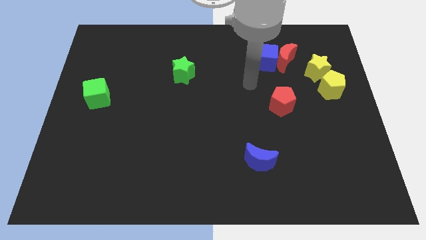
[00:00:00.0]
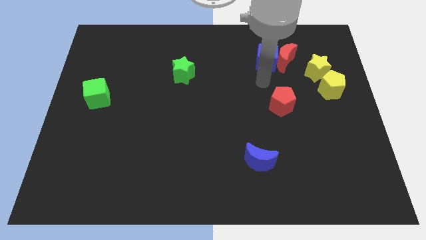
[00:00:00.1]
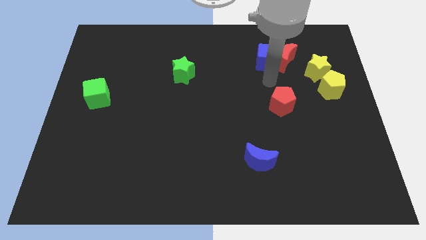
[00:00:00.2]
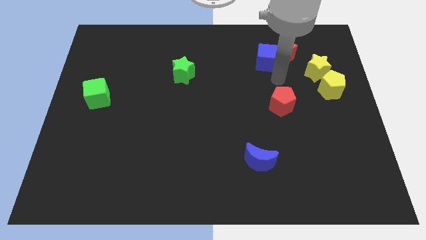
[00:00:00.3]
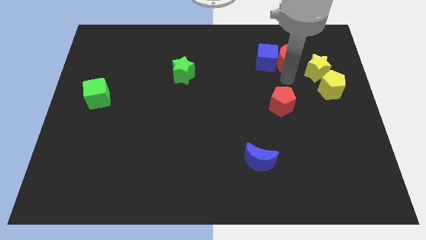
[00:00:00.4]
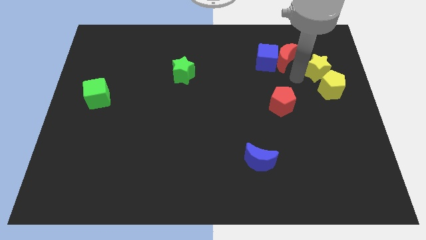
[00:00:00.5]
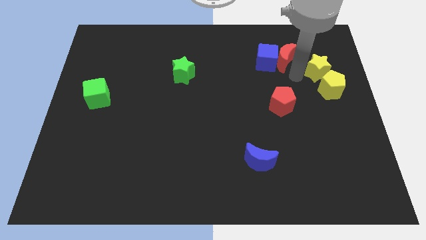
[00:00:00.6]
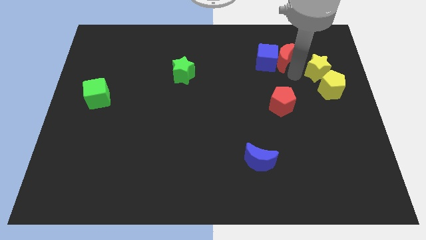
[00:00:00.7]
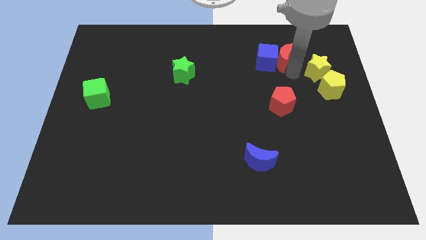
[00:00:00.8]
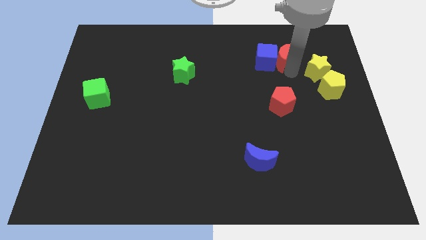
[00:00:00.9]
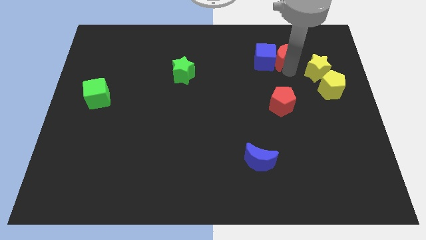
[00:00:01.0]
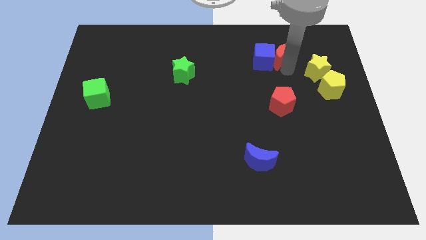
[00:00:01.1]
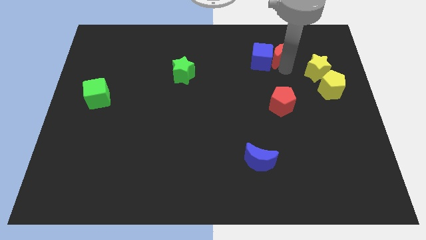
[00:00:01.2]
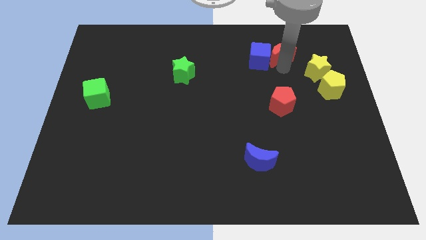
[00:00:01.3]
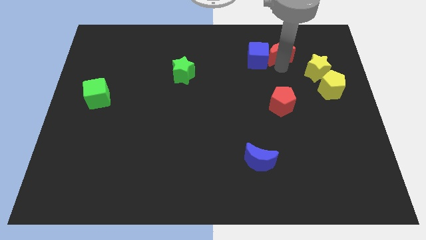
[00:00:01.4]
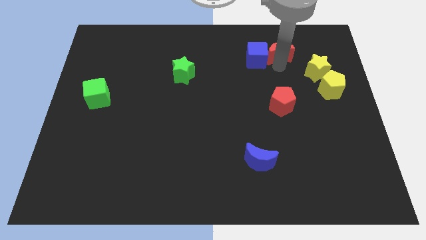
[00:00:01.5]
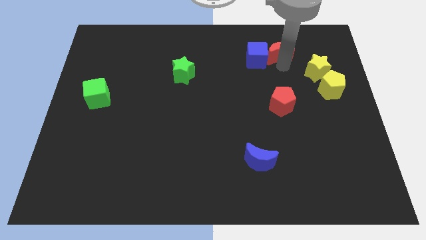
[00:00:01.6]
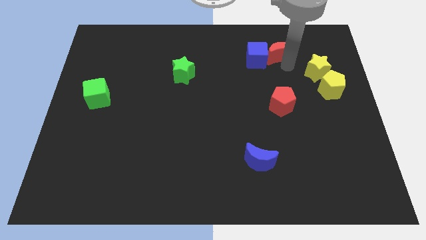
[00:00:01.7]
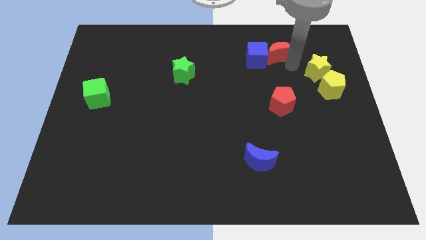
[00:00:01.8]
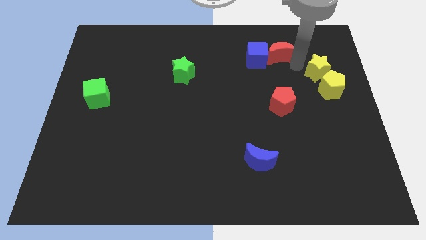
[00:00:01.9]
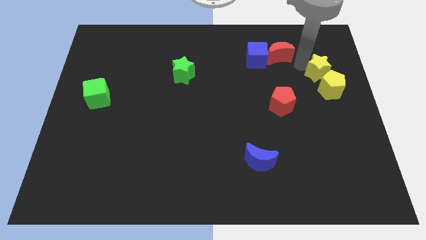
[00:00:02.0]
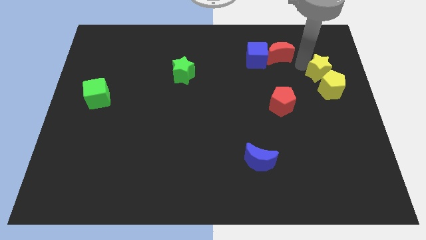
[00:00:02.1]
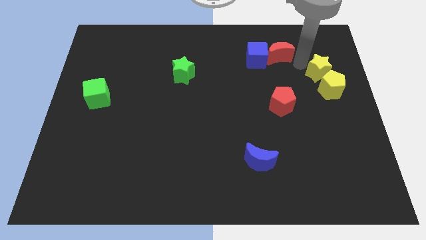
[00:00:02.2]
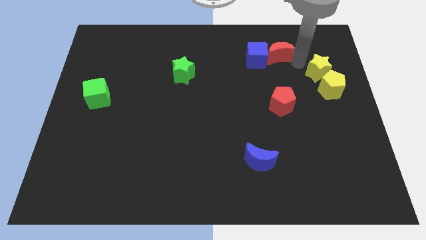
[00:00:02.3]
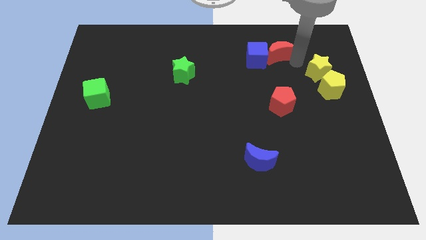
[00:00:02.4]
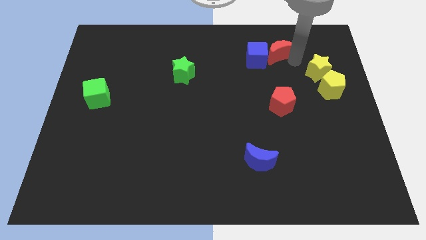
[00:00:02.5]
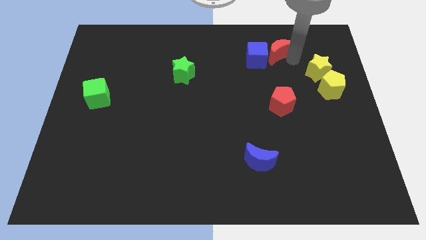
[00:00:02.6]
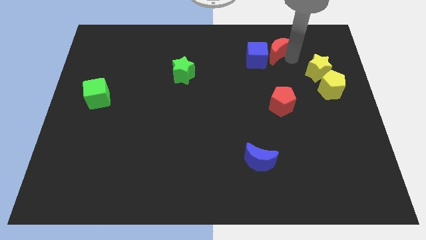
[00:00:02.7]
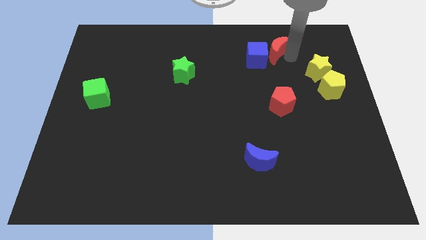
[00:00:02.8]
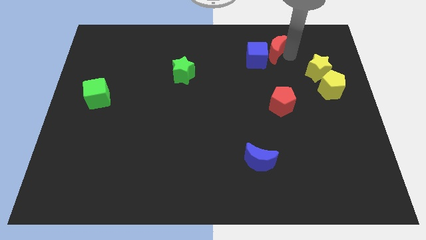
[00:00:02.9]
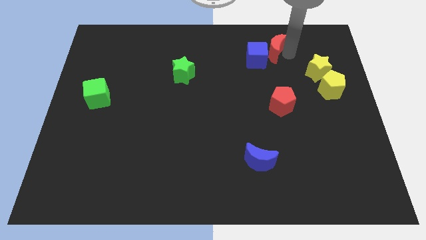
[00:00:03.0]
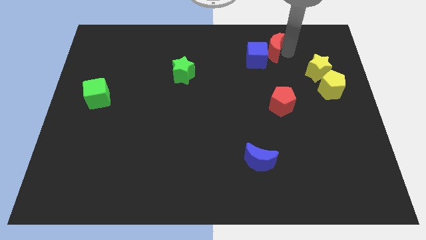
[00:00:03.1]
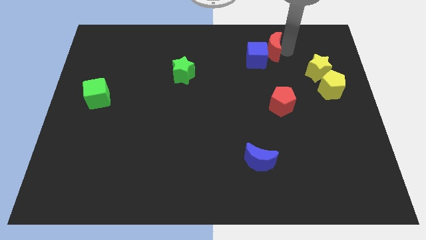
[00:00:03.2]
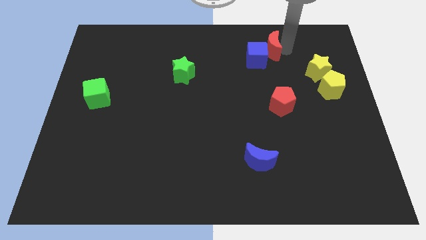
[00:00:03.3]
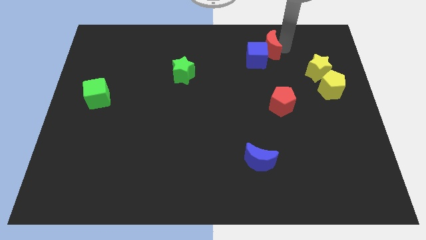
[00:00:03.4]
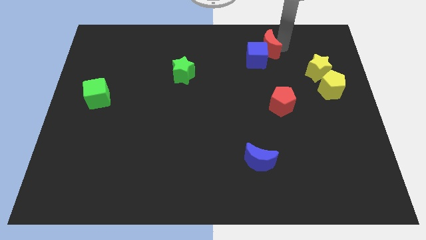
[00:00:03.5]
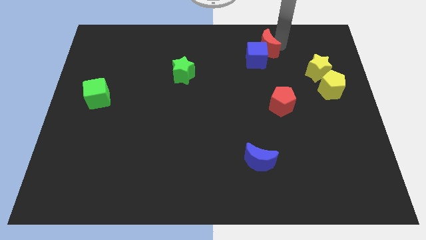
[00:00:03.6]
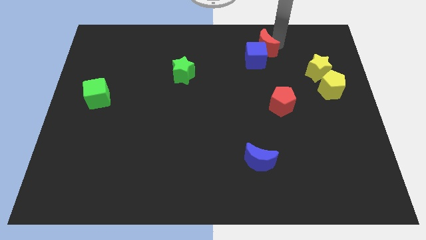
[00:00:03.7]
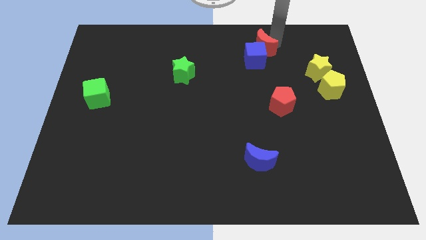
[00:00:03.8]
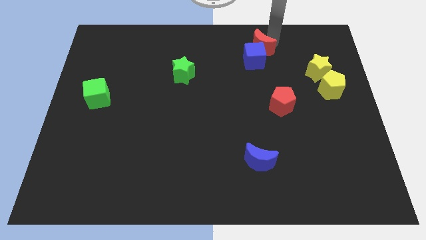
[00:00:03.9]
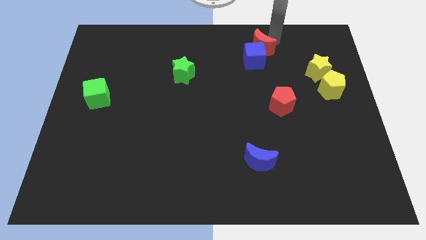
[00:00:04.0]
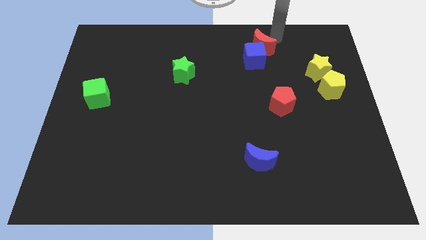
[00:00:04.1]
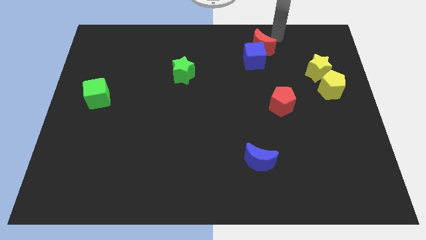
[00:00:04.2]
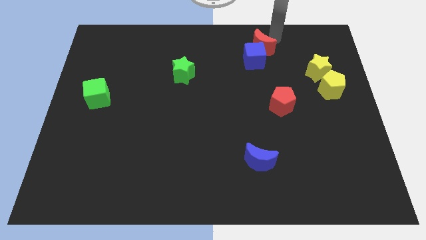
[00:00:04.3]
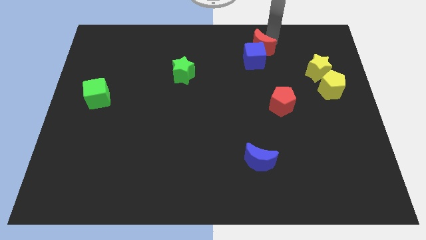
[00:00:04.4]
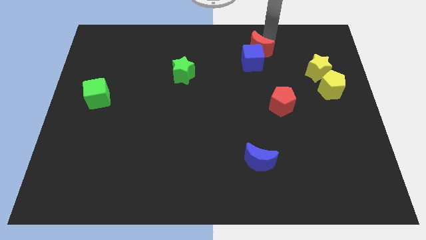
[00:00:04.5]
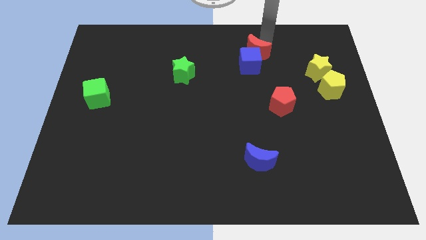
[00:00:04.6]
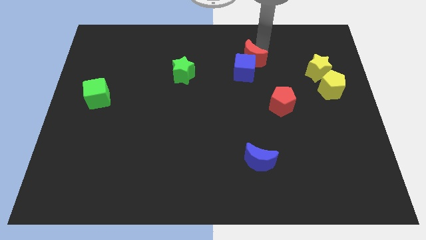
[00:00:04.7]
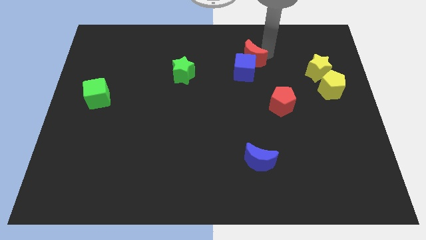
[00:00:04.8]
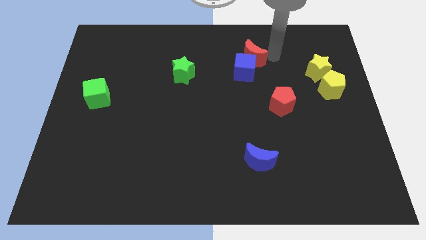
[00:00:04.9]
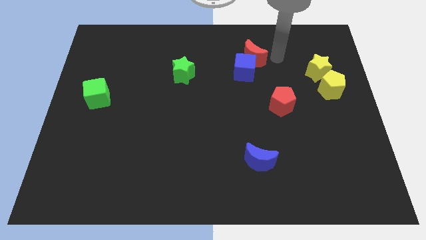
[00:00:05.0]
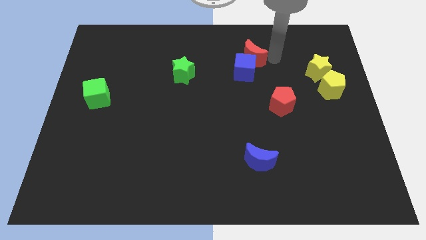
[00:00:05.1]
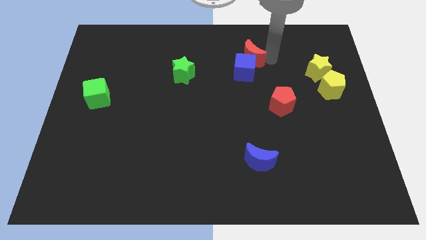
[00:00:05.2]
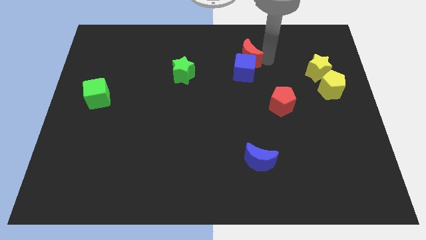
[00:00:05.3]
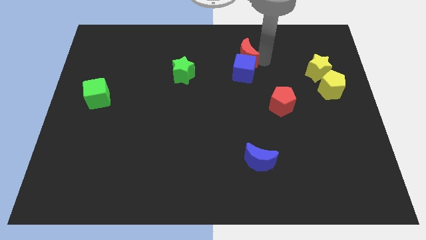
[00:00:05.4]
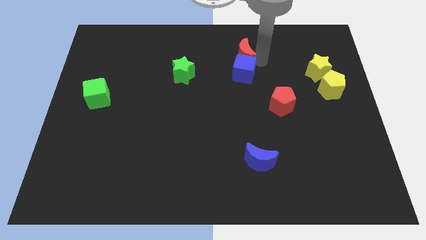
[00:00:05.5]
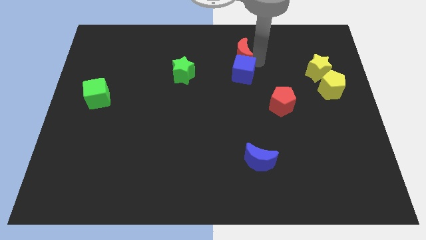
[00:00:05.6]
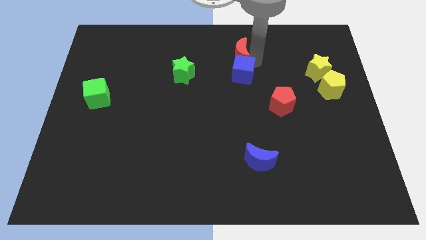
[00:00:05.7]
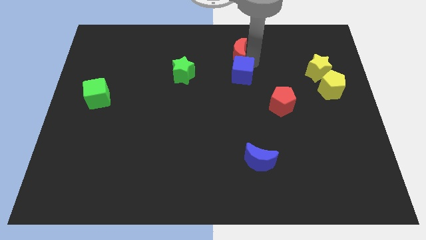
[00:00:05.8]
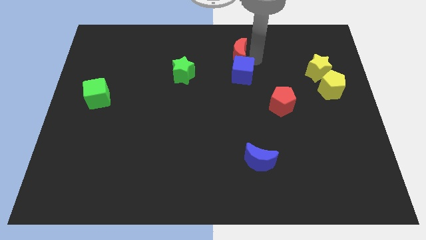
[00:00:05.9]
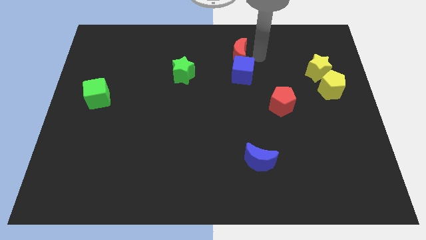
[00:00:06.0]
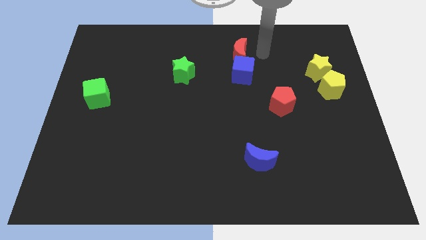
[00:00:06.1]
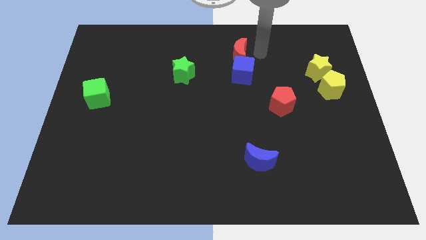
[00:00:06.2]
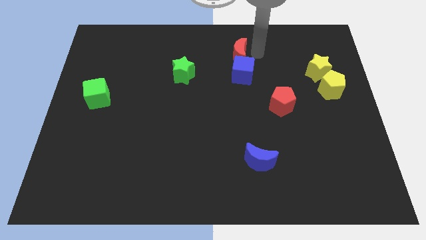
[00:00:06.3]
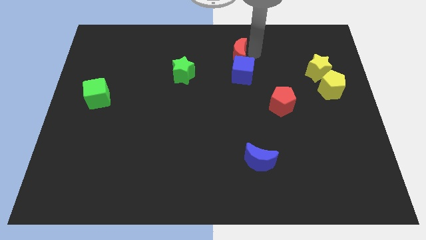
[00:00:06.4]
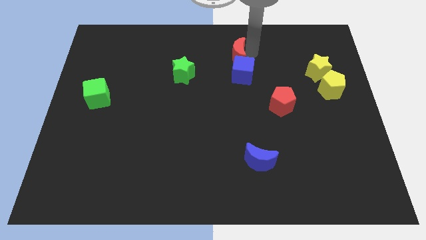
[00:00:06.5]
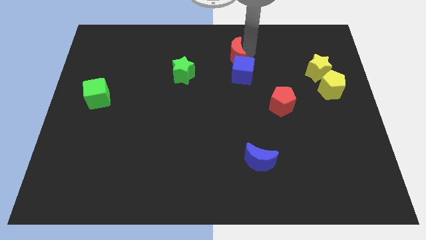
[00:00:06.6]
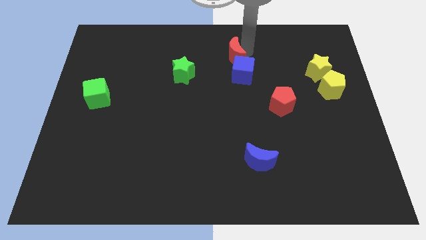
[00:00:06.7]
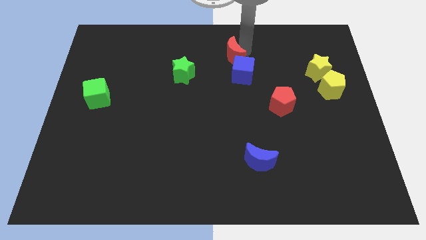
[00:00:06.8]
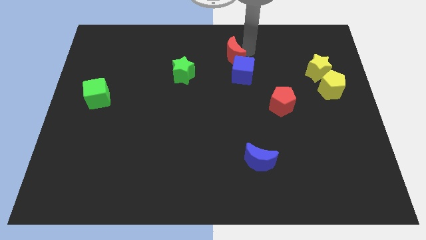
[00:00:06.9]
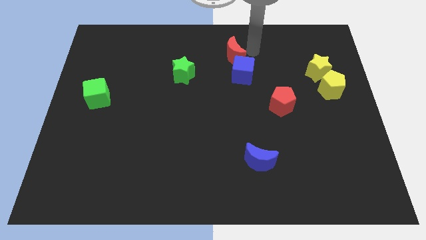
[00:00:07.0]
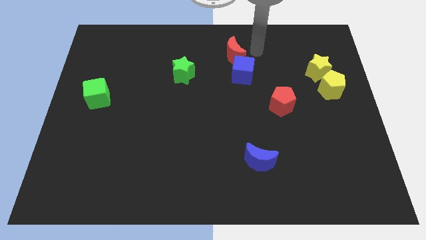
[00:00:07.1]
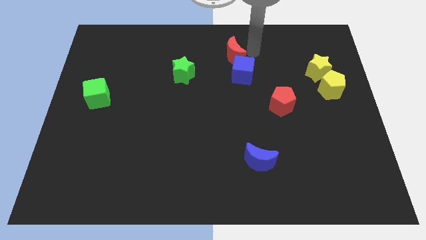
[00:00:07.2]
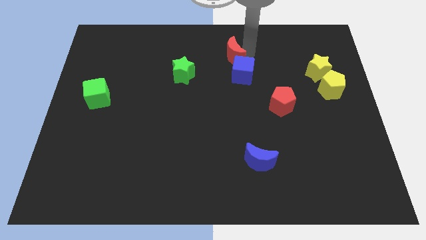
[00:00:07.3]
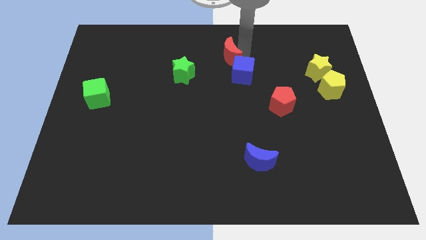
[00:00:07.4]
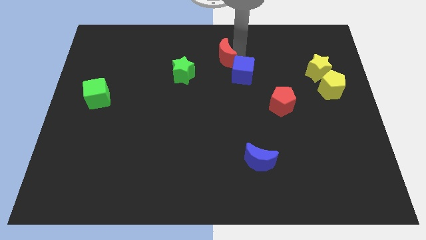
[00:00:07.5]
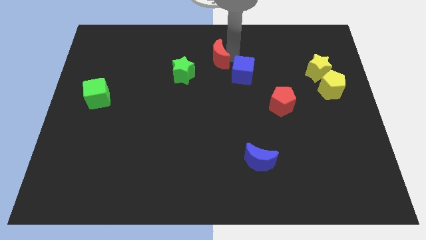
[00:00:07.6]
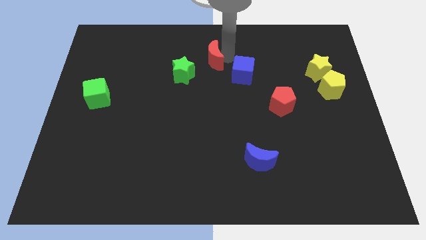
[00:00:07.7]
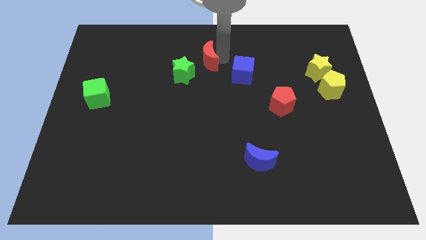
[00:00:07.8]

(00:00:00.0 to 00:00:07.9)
move the red moon to the left

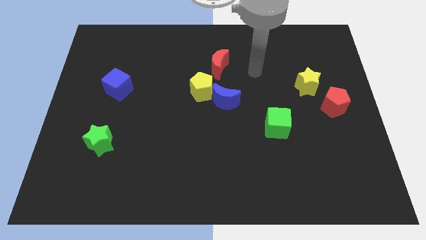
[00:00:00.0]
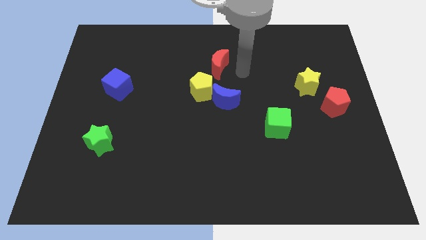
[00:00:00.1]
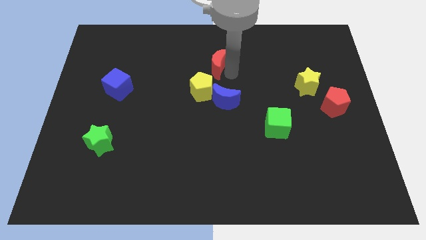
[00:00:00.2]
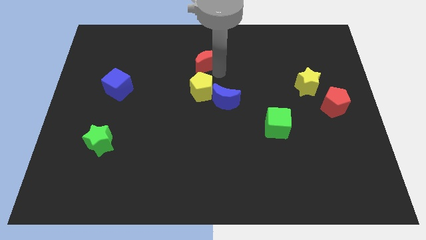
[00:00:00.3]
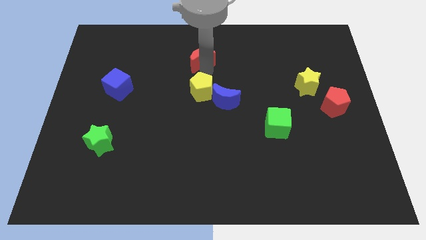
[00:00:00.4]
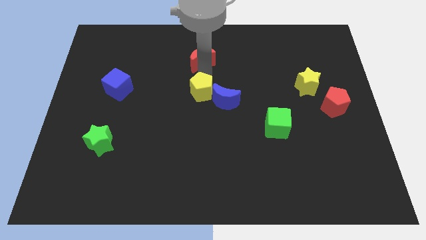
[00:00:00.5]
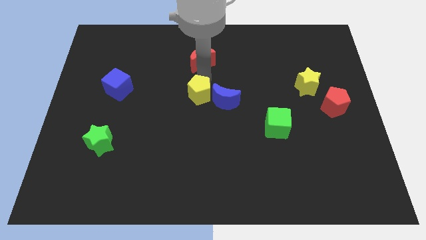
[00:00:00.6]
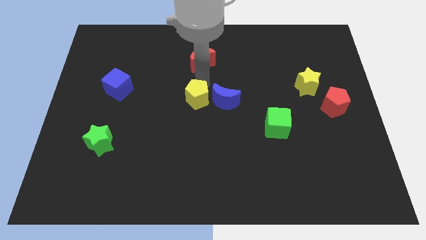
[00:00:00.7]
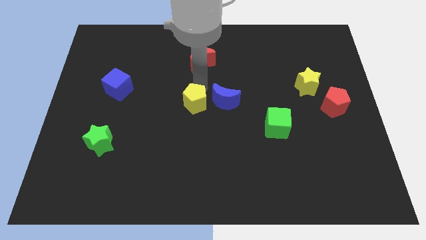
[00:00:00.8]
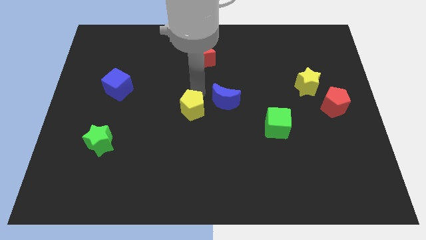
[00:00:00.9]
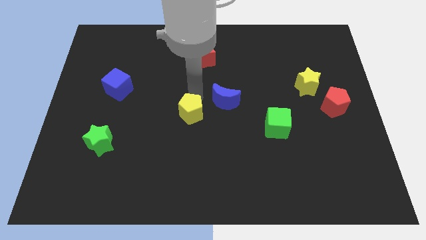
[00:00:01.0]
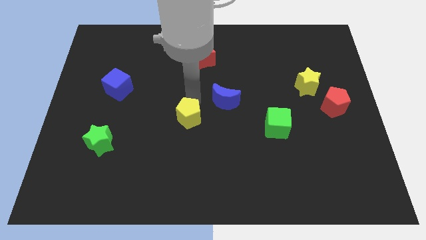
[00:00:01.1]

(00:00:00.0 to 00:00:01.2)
push the yellow pentagon slightly downwards
